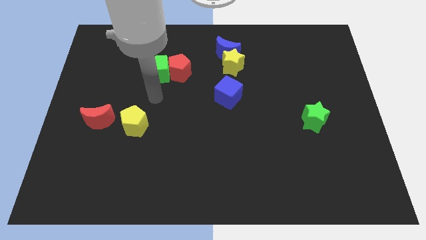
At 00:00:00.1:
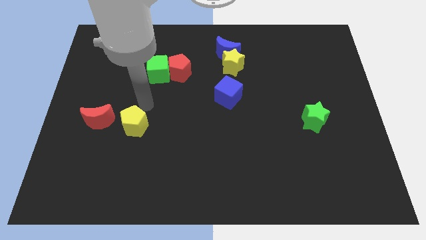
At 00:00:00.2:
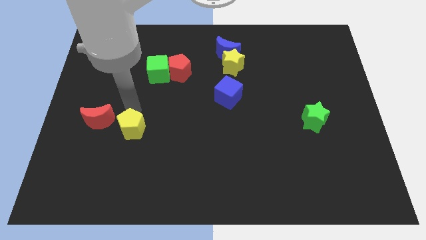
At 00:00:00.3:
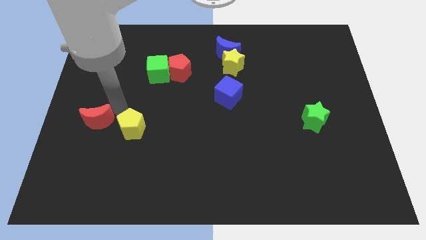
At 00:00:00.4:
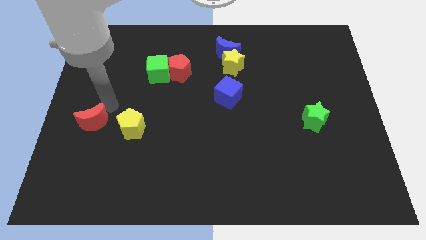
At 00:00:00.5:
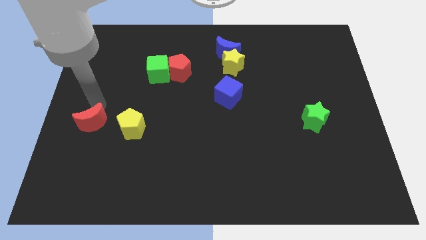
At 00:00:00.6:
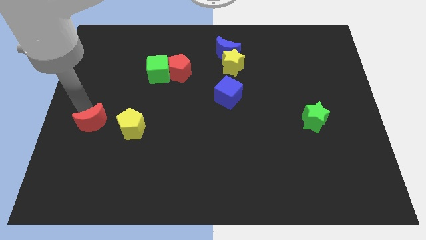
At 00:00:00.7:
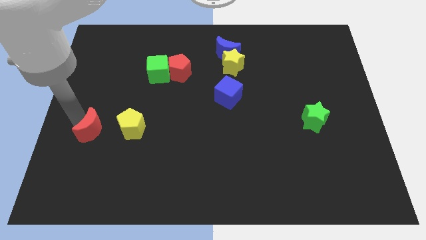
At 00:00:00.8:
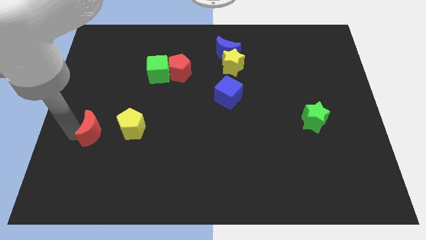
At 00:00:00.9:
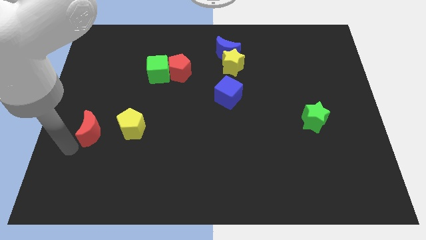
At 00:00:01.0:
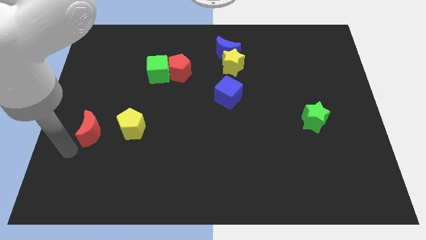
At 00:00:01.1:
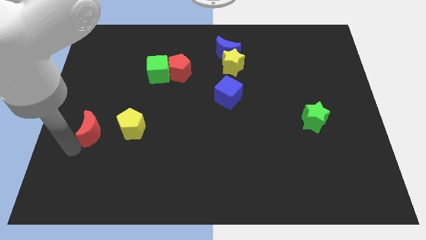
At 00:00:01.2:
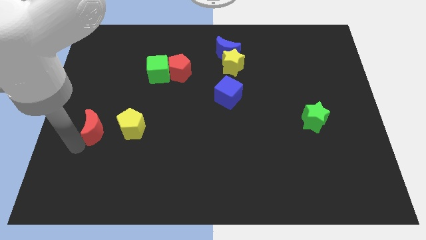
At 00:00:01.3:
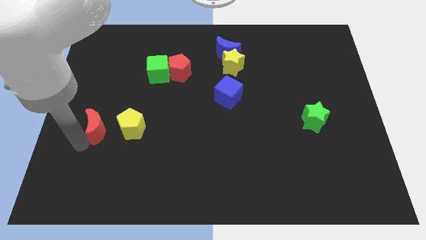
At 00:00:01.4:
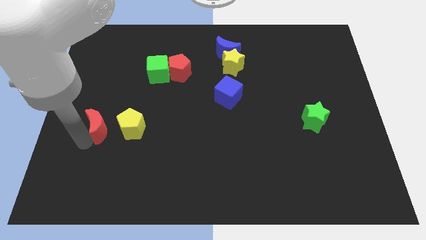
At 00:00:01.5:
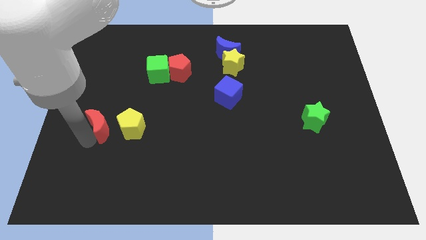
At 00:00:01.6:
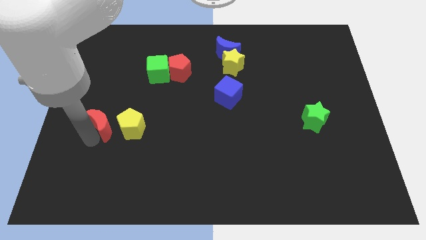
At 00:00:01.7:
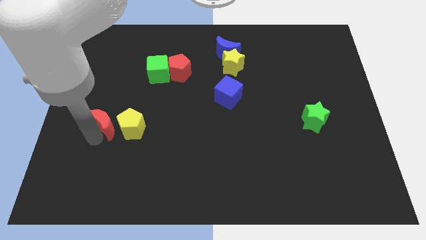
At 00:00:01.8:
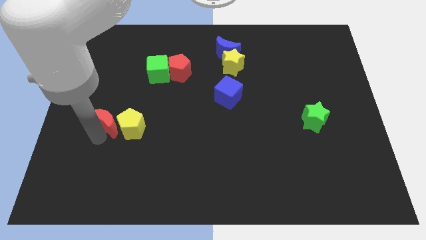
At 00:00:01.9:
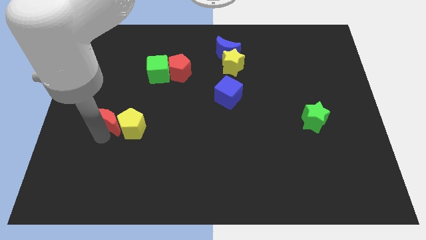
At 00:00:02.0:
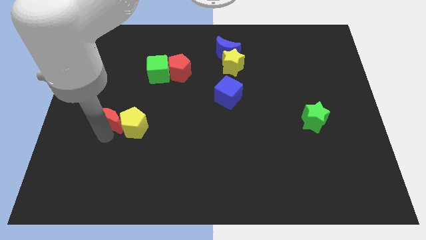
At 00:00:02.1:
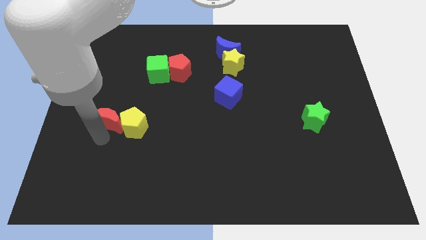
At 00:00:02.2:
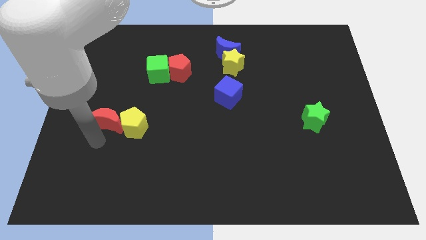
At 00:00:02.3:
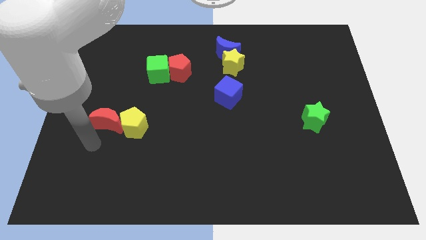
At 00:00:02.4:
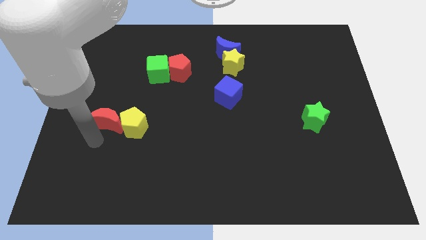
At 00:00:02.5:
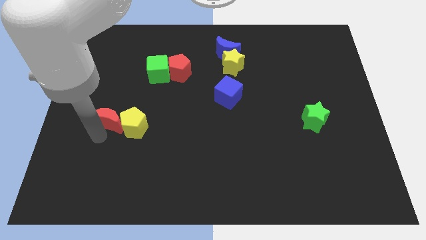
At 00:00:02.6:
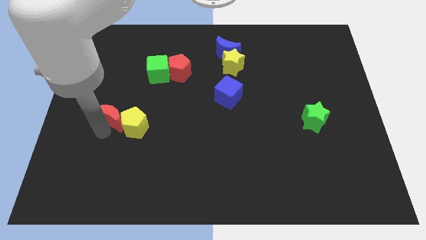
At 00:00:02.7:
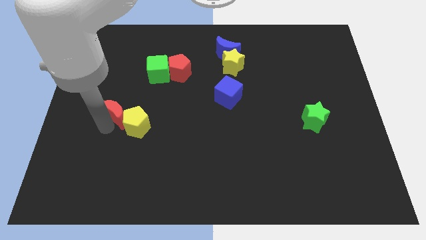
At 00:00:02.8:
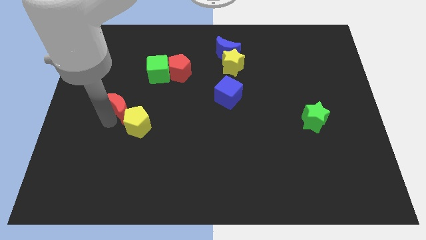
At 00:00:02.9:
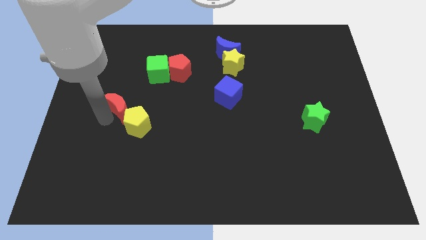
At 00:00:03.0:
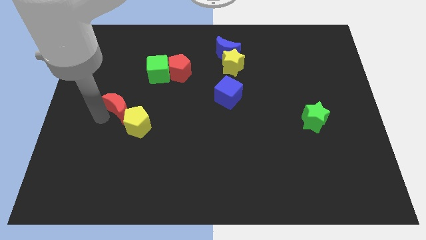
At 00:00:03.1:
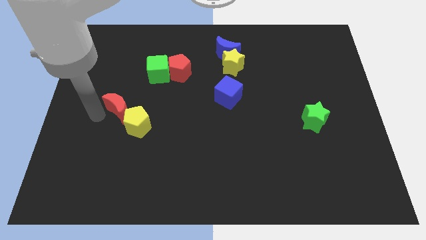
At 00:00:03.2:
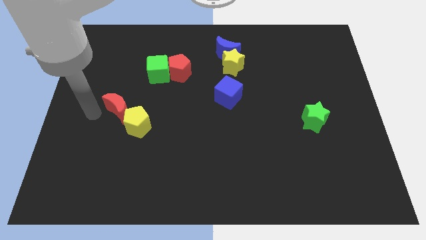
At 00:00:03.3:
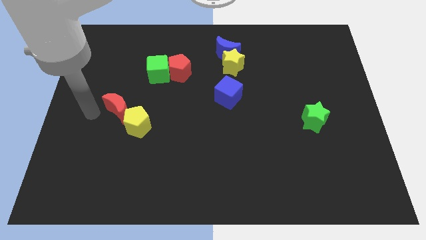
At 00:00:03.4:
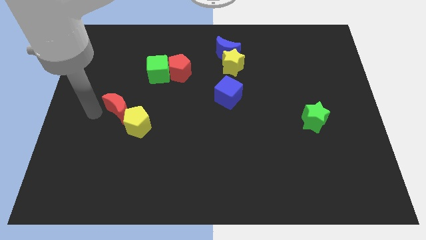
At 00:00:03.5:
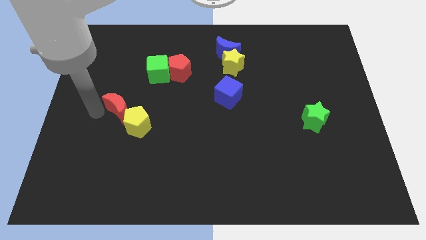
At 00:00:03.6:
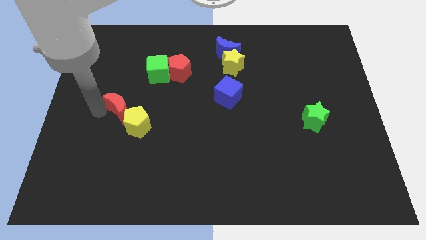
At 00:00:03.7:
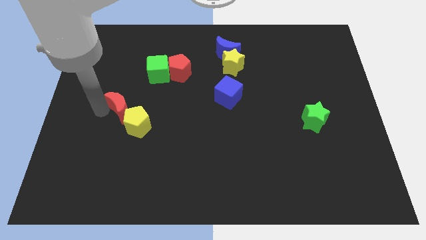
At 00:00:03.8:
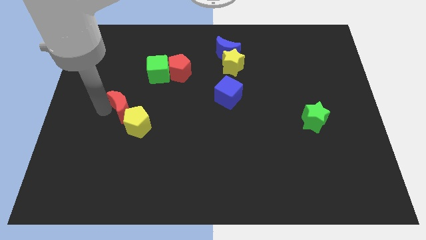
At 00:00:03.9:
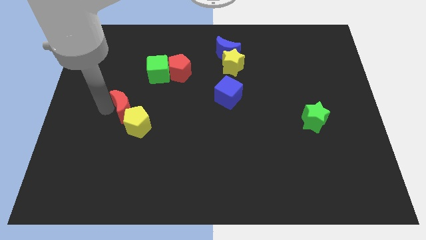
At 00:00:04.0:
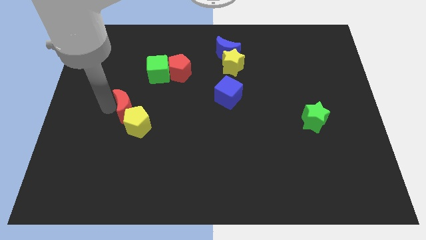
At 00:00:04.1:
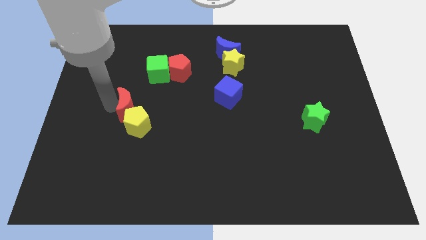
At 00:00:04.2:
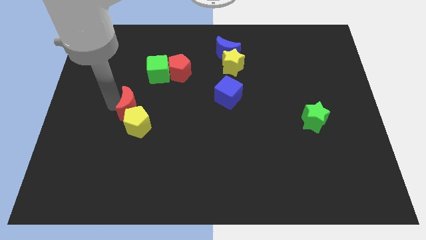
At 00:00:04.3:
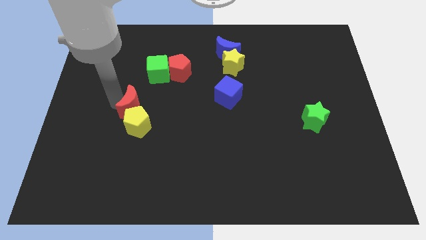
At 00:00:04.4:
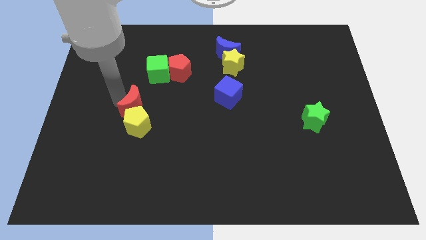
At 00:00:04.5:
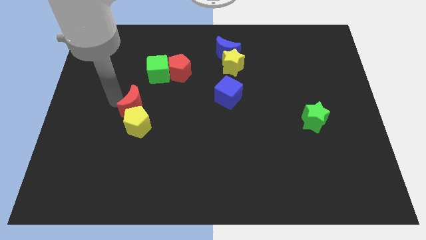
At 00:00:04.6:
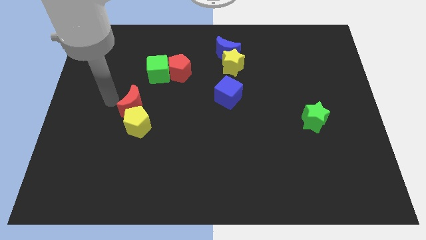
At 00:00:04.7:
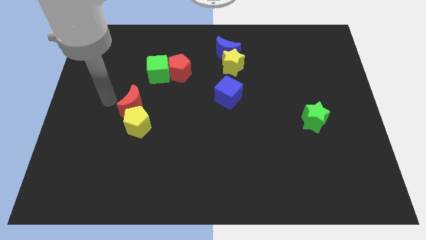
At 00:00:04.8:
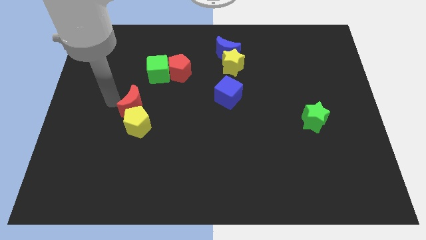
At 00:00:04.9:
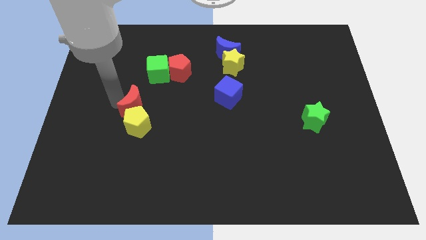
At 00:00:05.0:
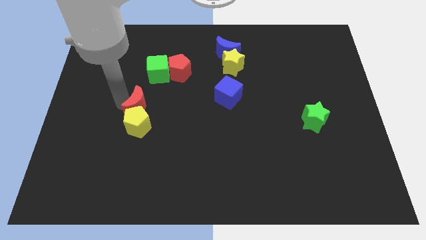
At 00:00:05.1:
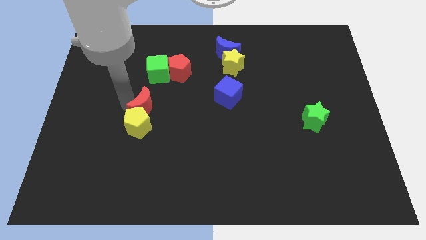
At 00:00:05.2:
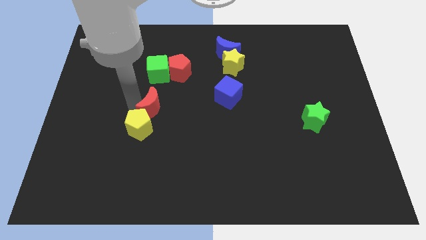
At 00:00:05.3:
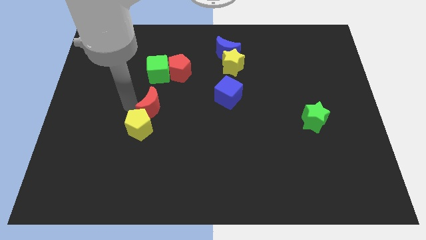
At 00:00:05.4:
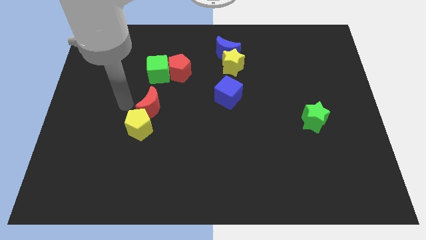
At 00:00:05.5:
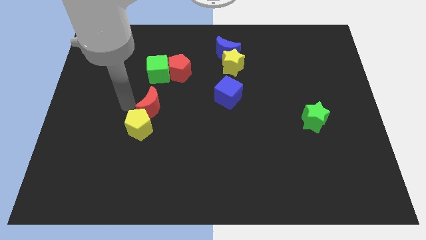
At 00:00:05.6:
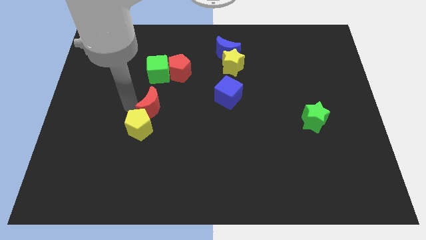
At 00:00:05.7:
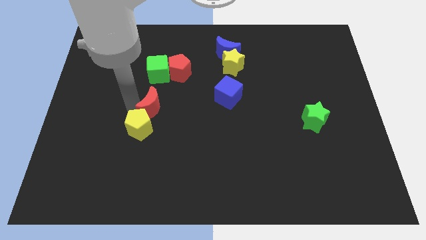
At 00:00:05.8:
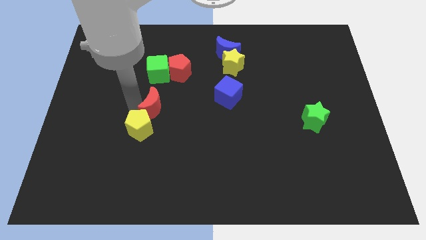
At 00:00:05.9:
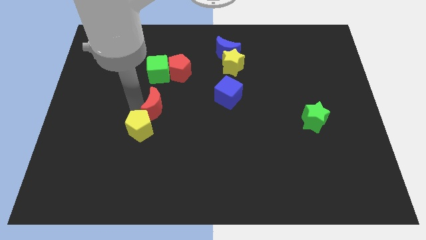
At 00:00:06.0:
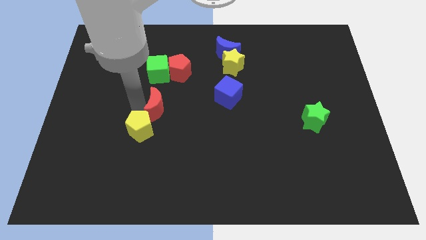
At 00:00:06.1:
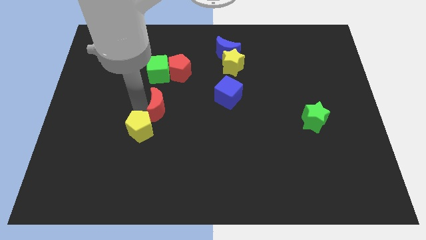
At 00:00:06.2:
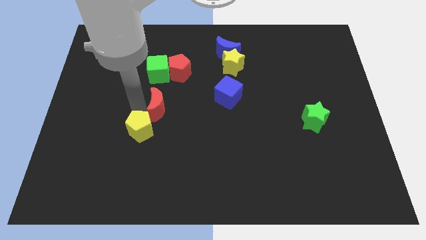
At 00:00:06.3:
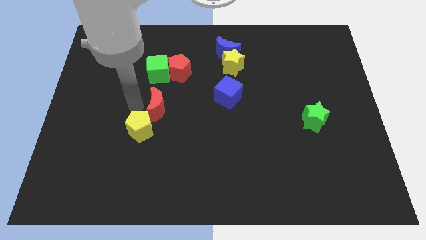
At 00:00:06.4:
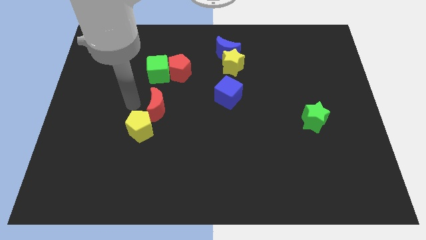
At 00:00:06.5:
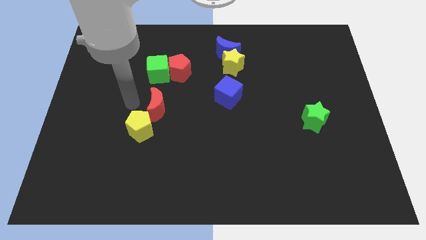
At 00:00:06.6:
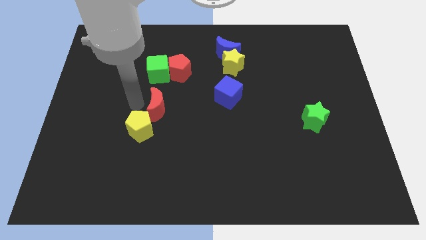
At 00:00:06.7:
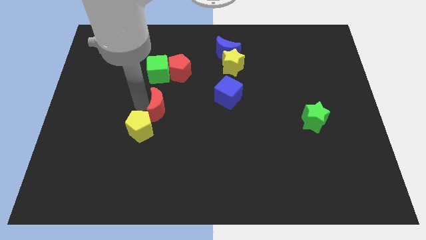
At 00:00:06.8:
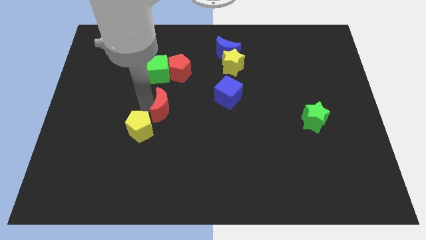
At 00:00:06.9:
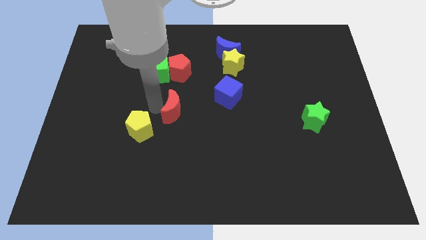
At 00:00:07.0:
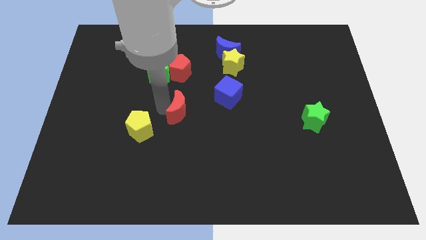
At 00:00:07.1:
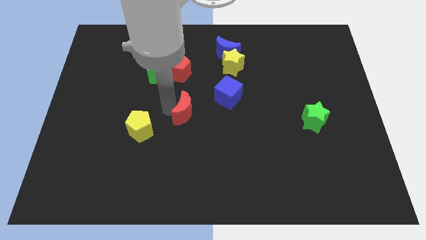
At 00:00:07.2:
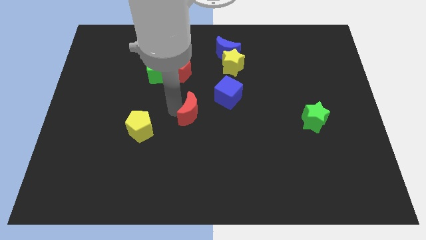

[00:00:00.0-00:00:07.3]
move the red moon right

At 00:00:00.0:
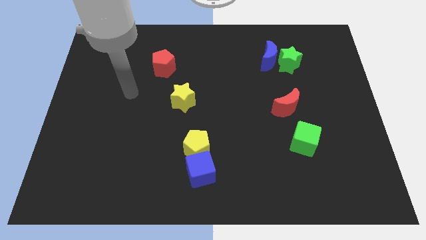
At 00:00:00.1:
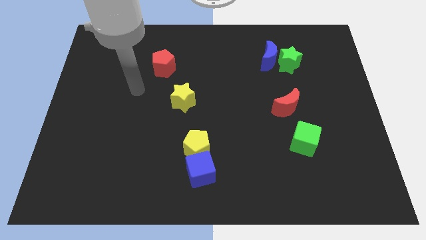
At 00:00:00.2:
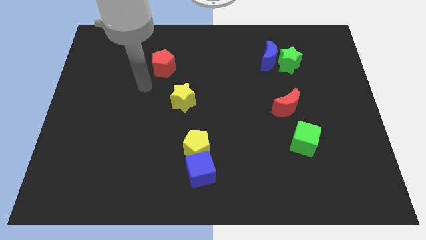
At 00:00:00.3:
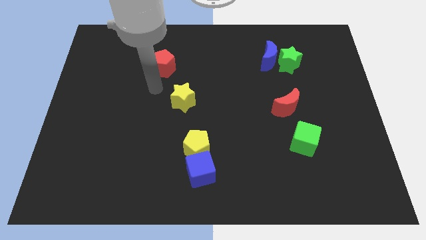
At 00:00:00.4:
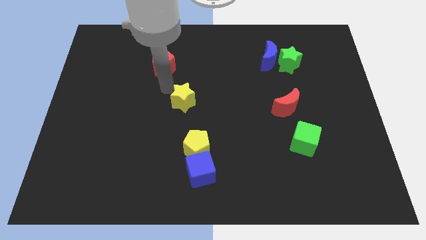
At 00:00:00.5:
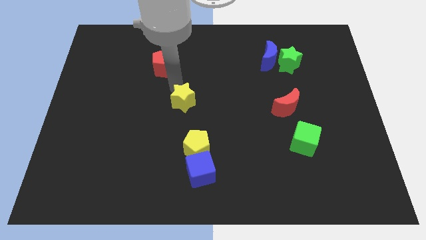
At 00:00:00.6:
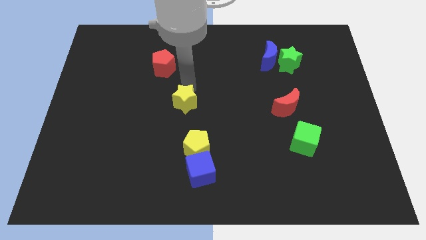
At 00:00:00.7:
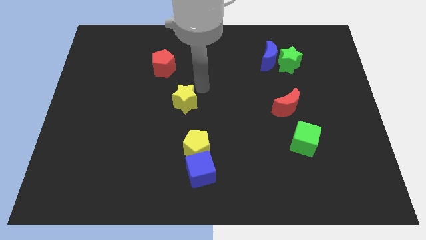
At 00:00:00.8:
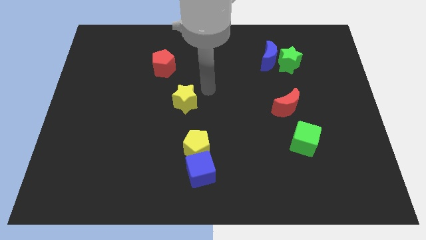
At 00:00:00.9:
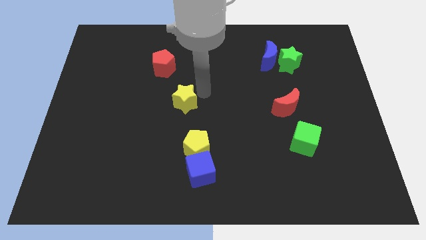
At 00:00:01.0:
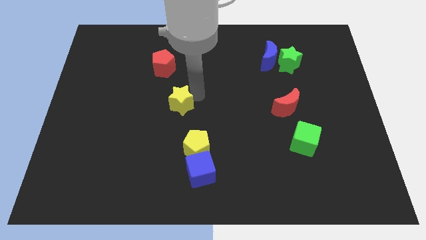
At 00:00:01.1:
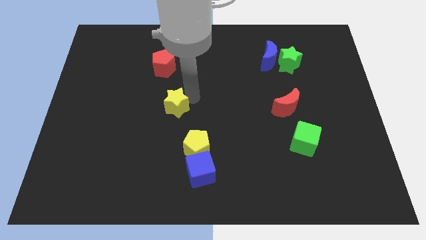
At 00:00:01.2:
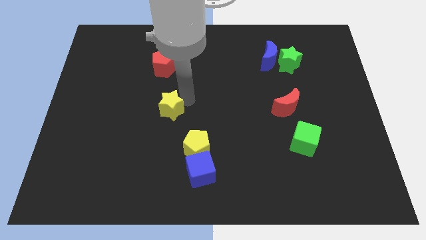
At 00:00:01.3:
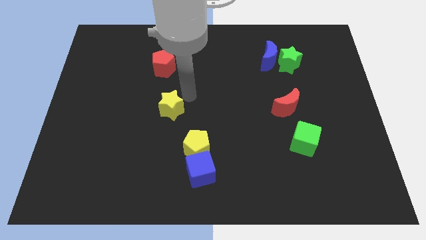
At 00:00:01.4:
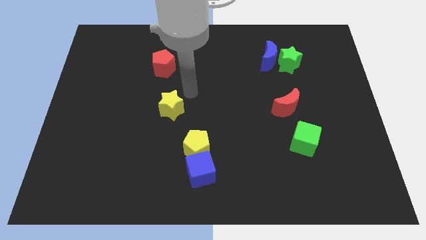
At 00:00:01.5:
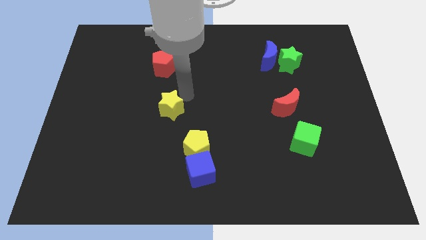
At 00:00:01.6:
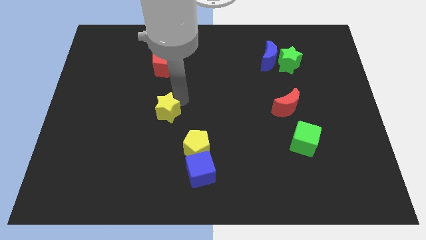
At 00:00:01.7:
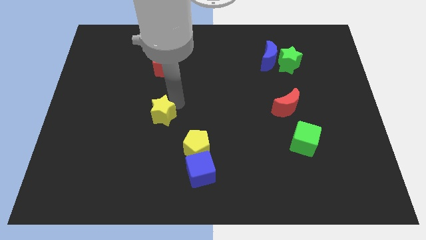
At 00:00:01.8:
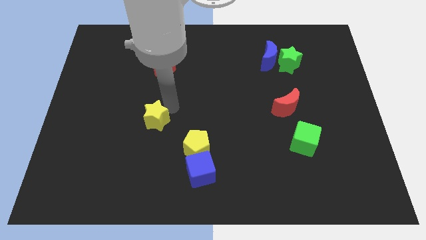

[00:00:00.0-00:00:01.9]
move the yellow star somewhat diagonally downwards and left
